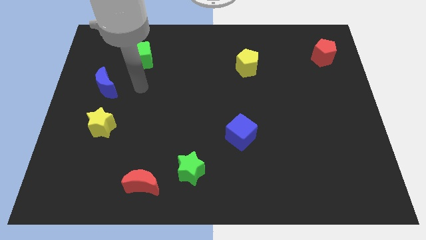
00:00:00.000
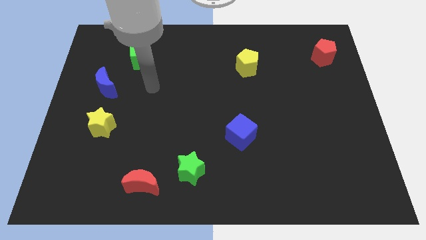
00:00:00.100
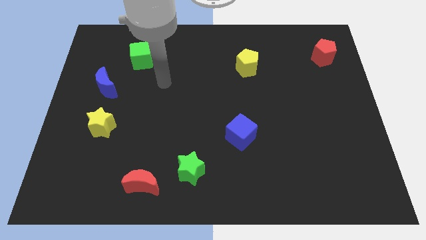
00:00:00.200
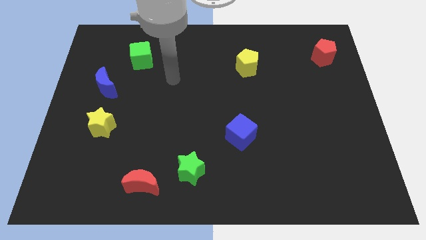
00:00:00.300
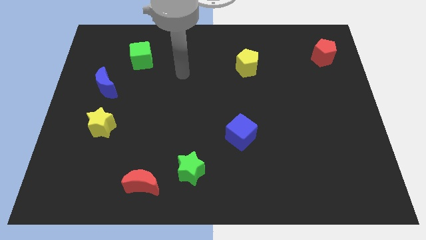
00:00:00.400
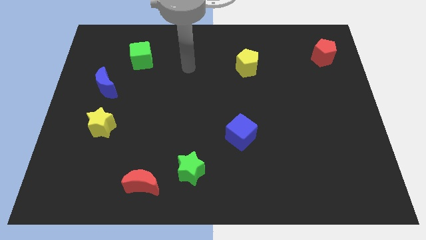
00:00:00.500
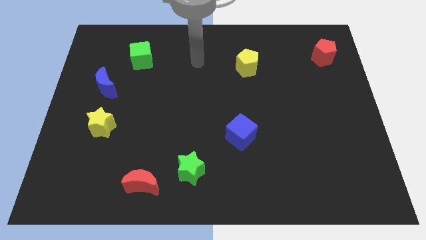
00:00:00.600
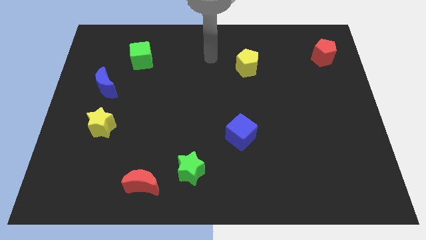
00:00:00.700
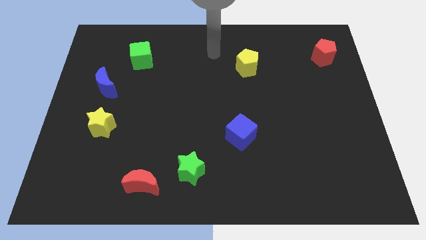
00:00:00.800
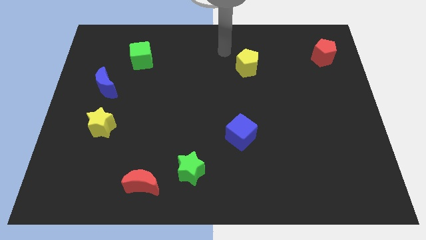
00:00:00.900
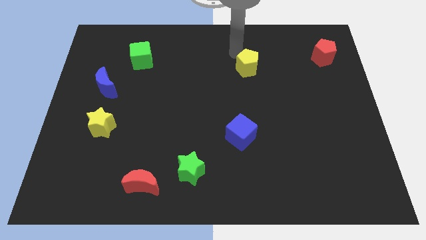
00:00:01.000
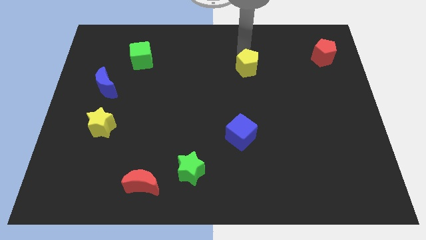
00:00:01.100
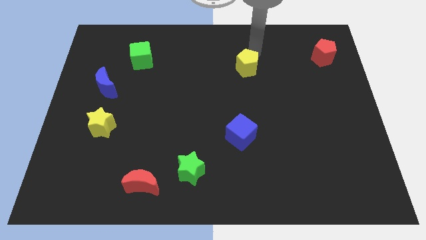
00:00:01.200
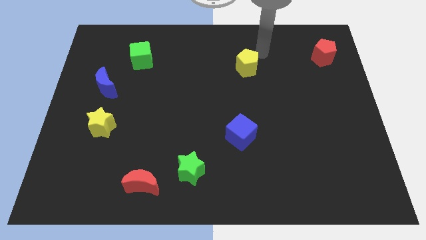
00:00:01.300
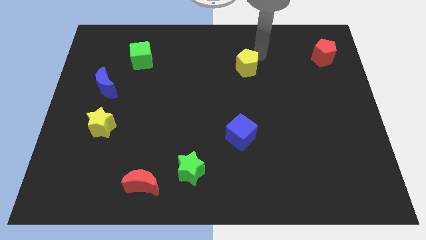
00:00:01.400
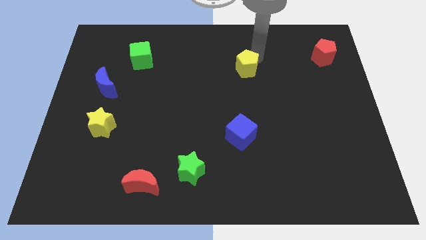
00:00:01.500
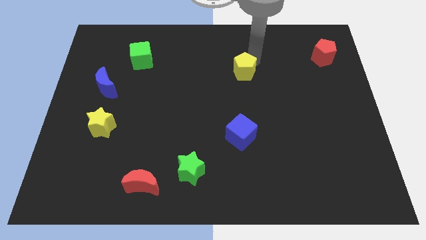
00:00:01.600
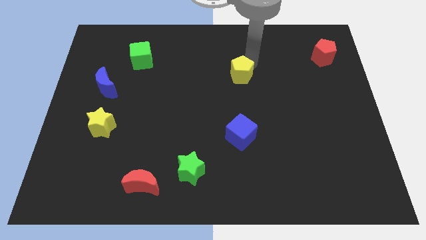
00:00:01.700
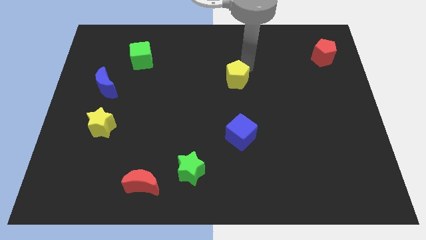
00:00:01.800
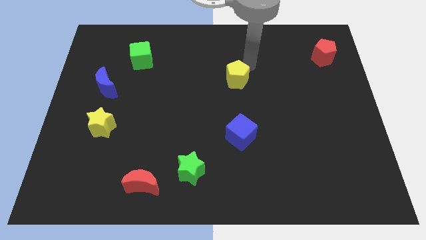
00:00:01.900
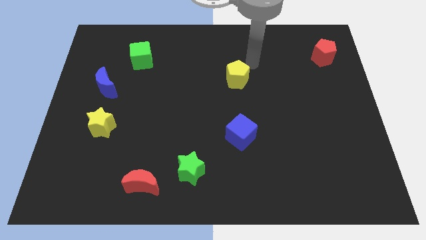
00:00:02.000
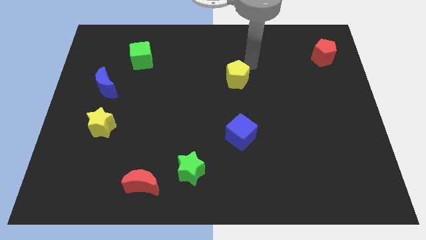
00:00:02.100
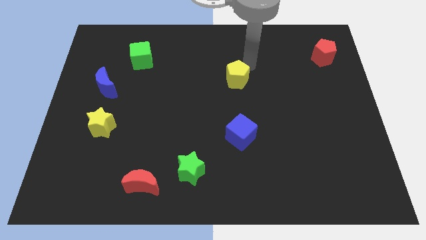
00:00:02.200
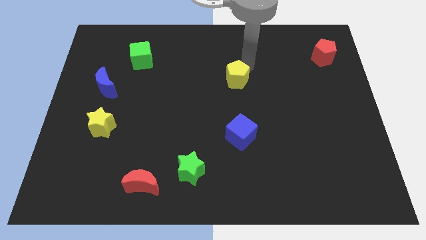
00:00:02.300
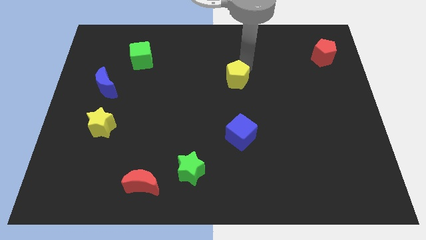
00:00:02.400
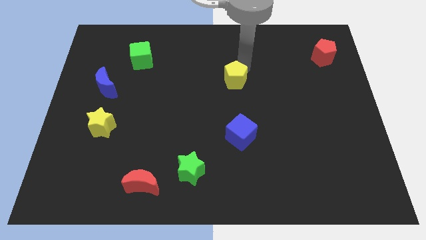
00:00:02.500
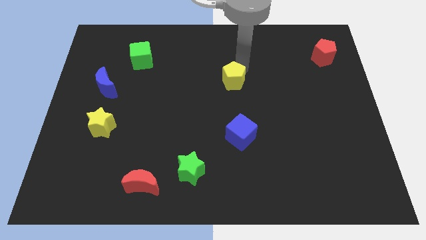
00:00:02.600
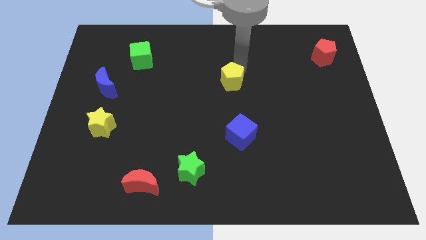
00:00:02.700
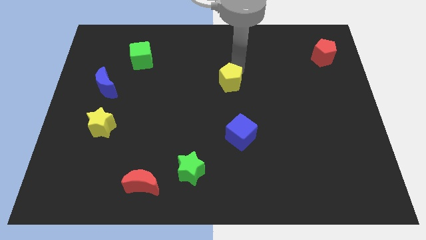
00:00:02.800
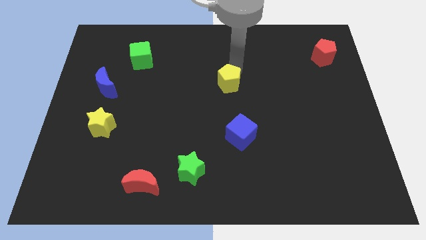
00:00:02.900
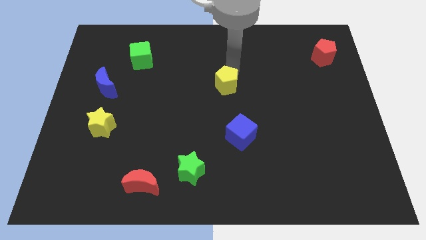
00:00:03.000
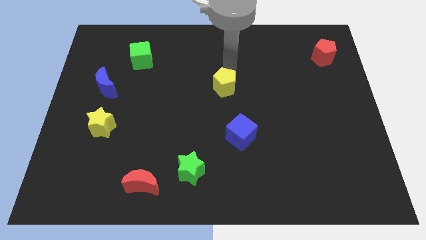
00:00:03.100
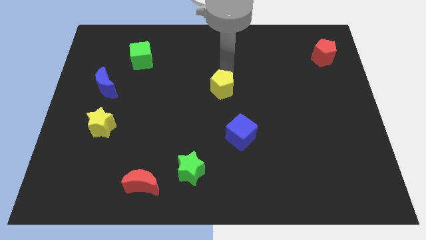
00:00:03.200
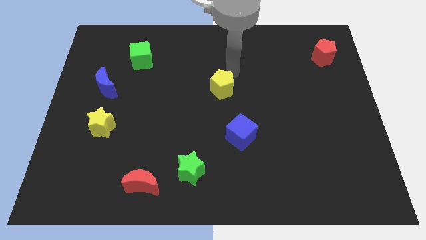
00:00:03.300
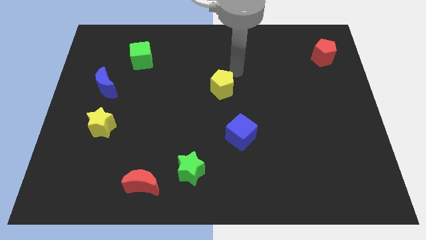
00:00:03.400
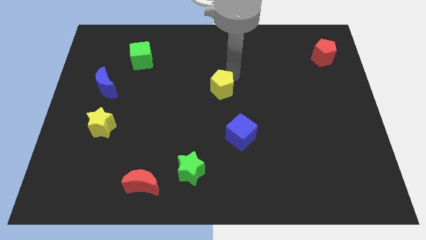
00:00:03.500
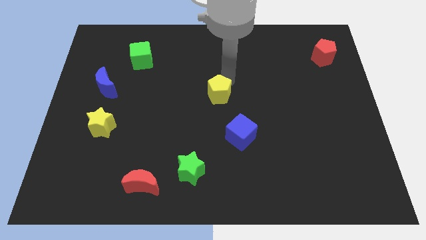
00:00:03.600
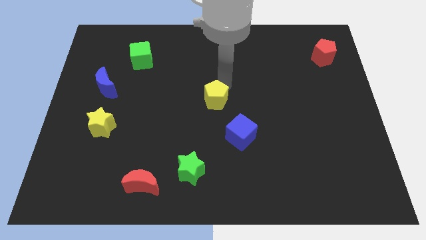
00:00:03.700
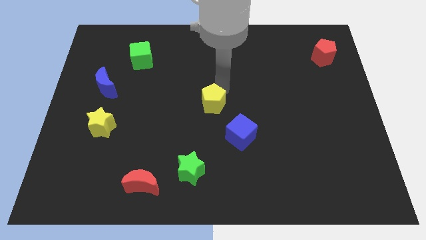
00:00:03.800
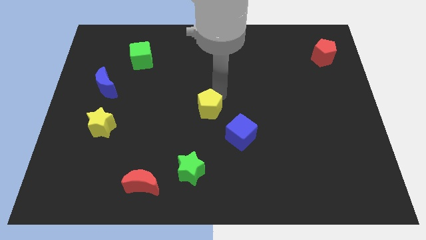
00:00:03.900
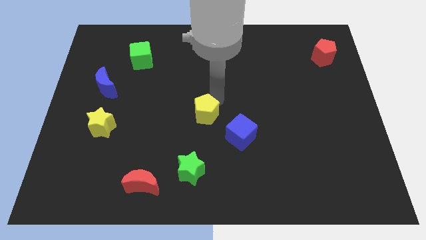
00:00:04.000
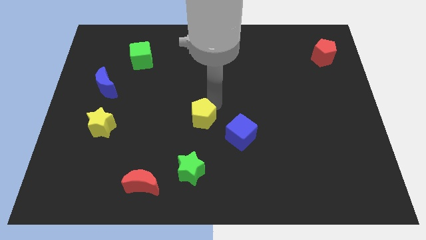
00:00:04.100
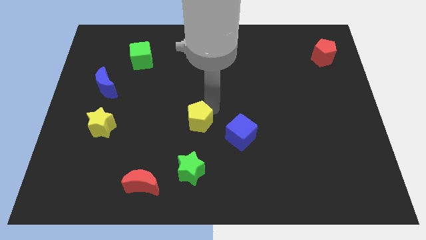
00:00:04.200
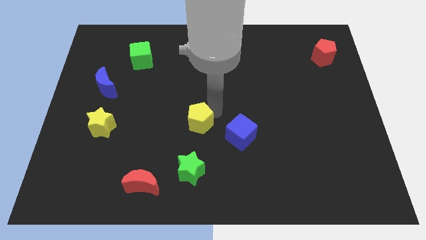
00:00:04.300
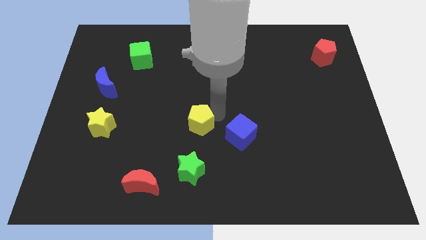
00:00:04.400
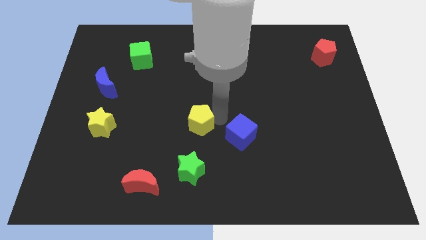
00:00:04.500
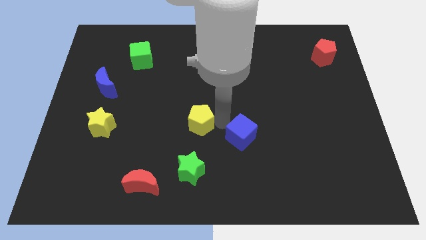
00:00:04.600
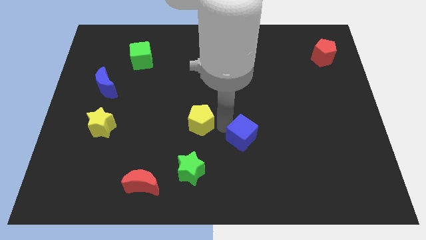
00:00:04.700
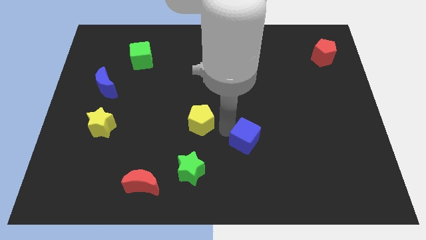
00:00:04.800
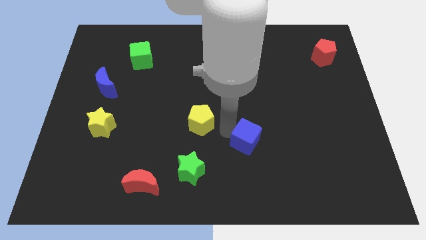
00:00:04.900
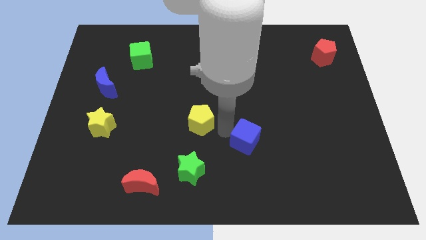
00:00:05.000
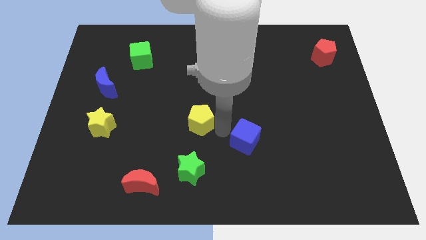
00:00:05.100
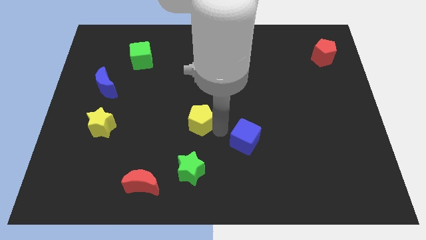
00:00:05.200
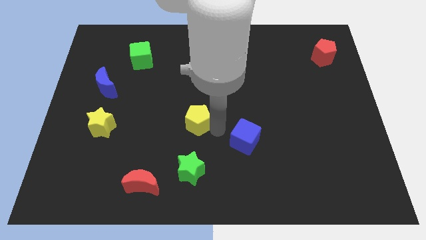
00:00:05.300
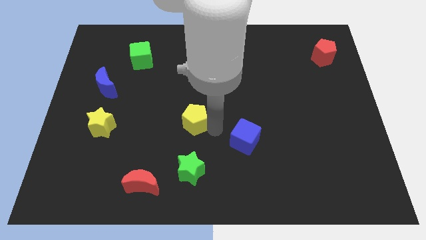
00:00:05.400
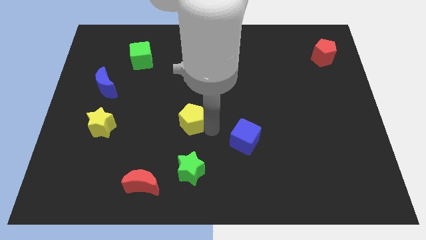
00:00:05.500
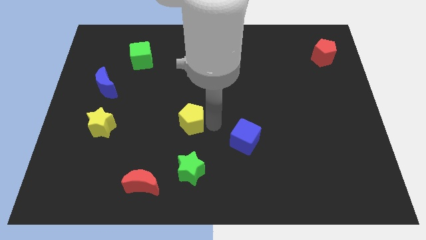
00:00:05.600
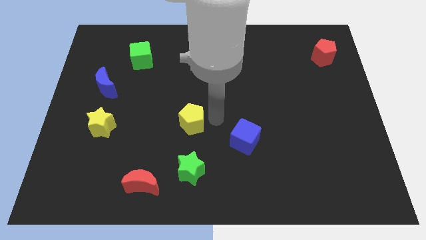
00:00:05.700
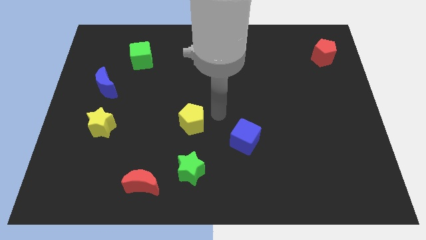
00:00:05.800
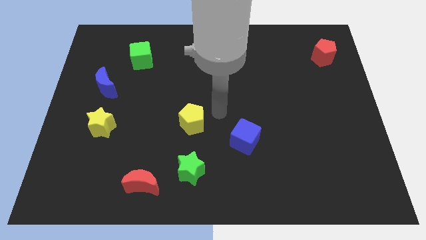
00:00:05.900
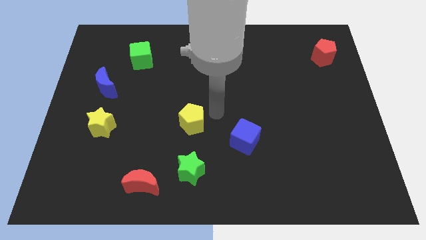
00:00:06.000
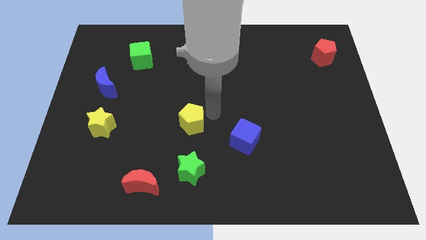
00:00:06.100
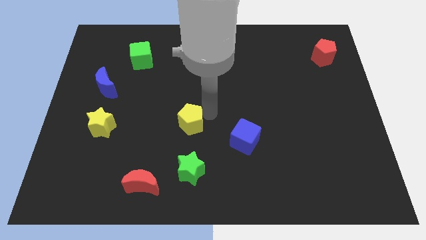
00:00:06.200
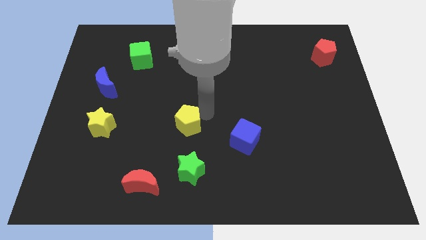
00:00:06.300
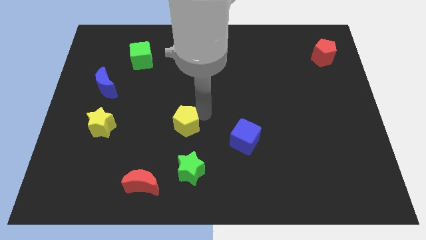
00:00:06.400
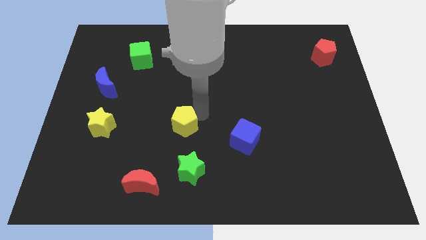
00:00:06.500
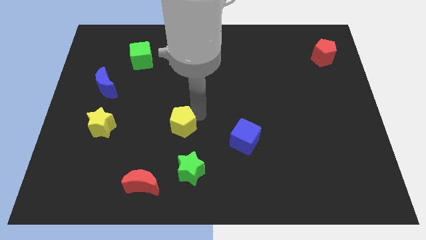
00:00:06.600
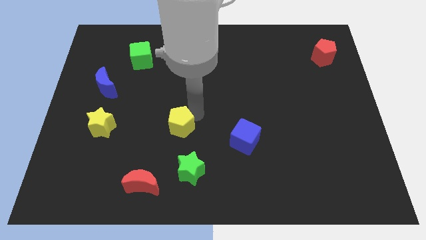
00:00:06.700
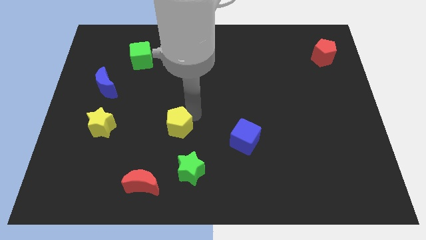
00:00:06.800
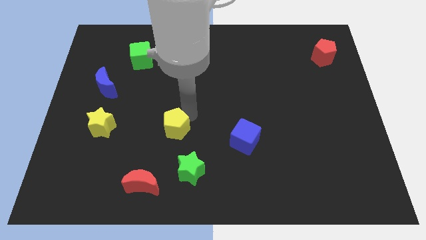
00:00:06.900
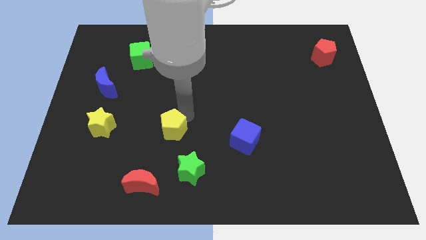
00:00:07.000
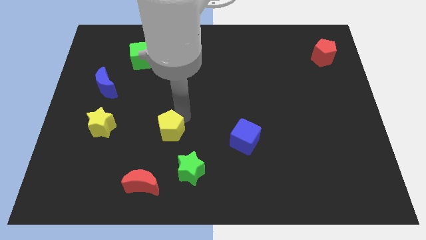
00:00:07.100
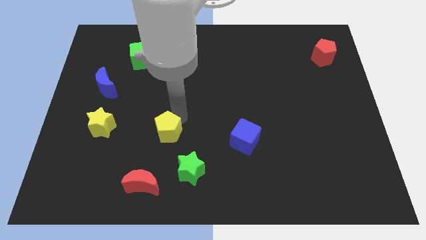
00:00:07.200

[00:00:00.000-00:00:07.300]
move the yellow pentagon above the red moon
